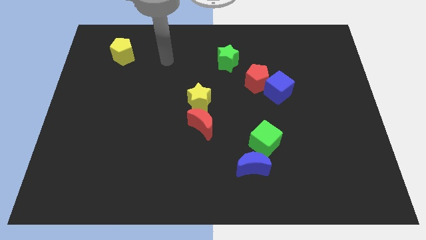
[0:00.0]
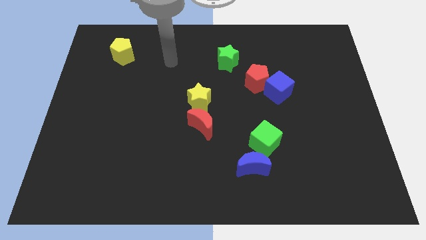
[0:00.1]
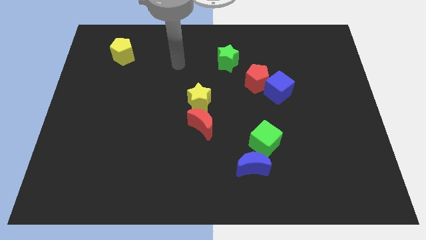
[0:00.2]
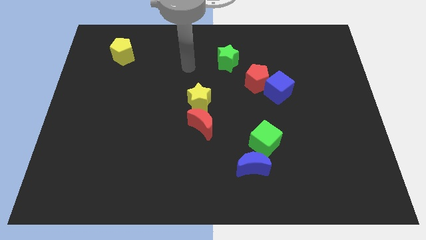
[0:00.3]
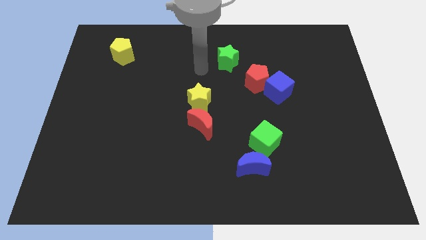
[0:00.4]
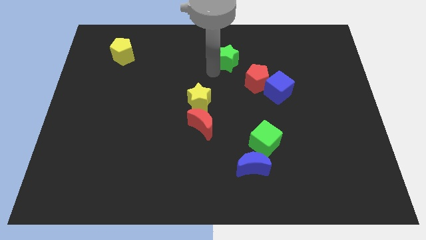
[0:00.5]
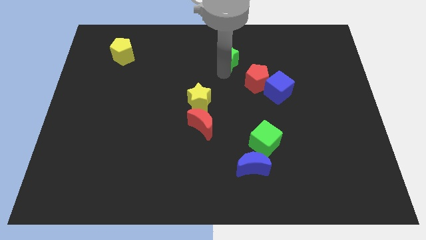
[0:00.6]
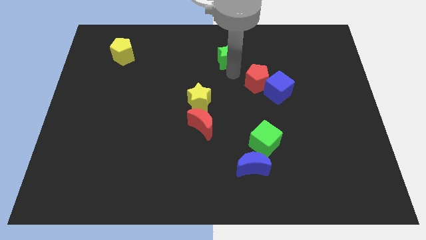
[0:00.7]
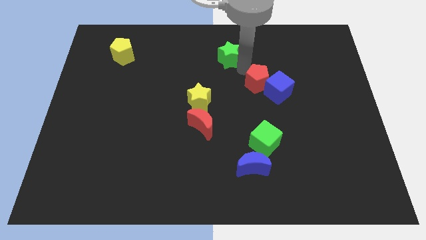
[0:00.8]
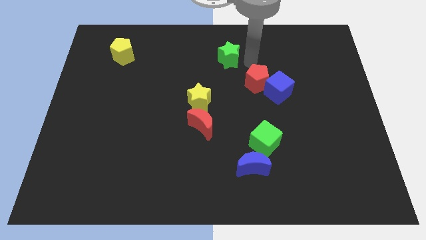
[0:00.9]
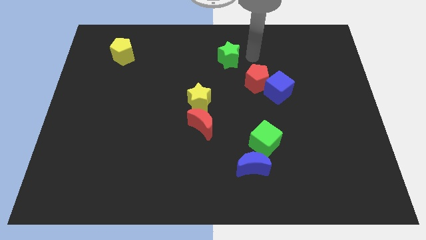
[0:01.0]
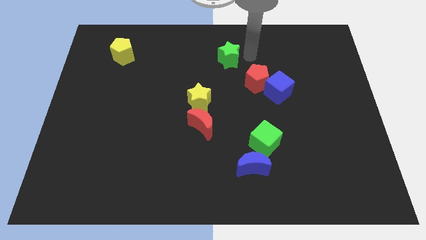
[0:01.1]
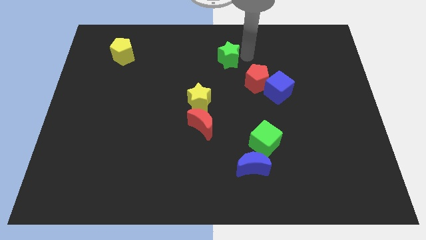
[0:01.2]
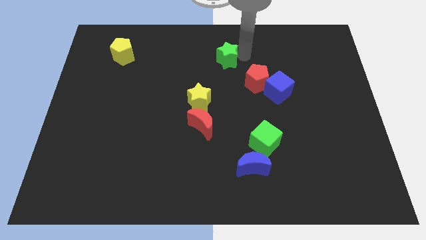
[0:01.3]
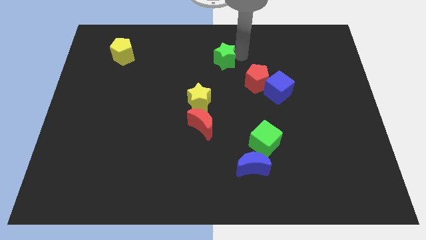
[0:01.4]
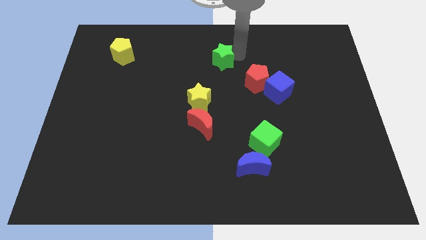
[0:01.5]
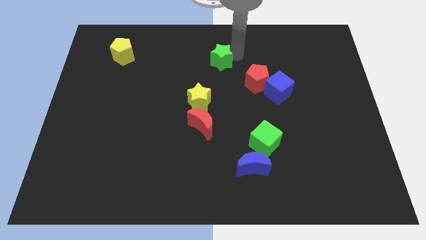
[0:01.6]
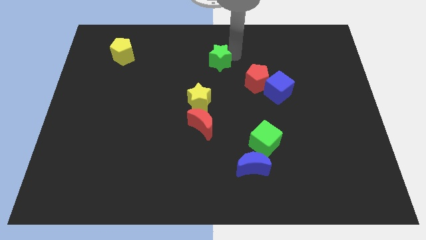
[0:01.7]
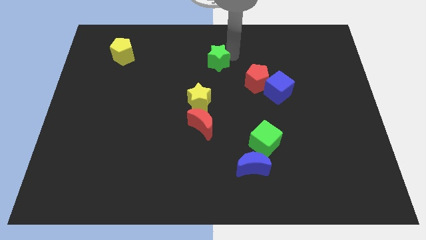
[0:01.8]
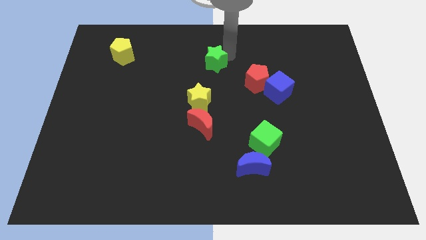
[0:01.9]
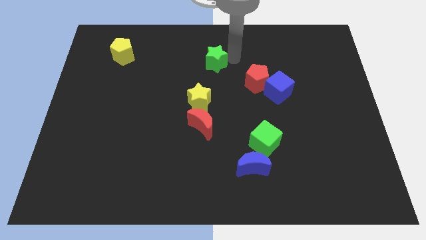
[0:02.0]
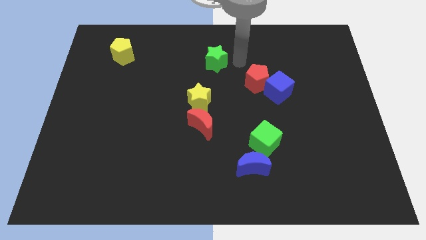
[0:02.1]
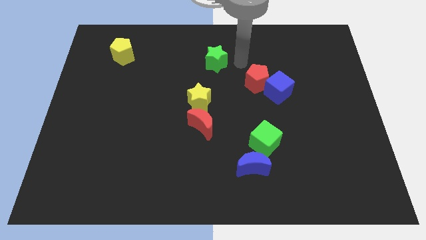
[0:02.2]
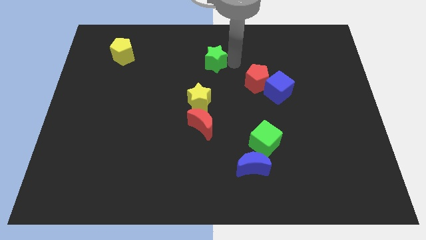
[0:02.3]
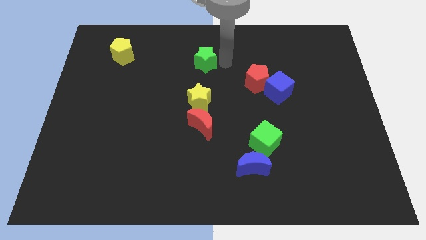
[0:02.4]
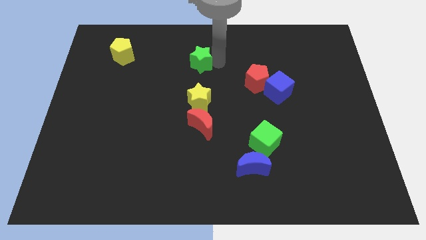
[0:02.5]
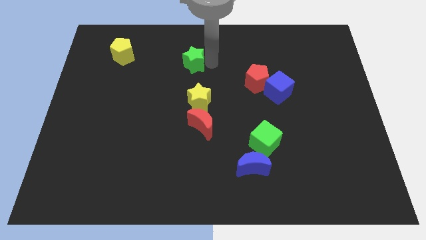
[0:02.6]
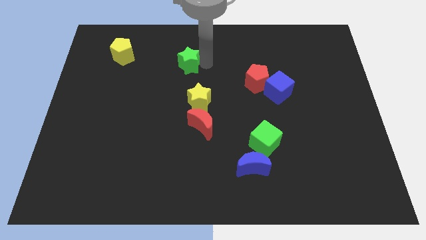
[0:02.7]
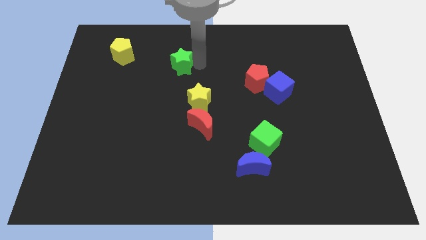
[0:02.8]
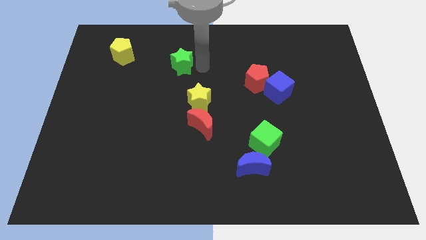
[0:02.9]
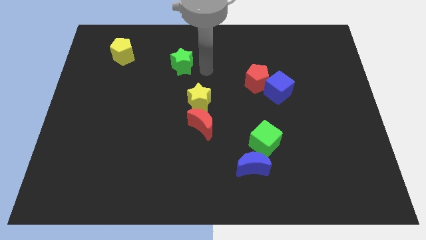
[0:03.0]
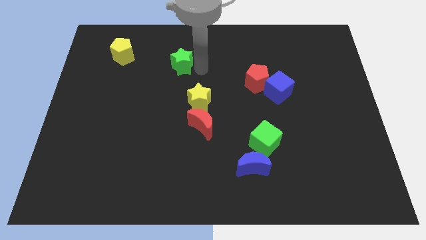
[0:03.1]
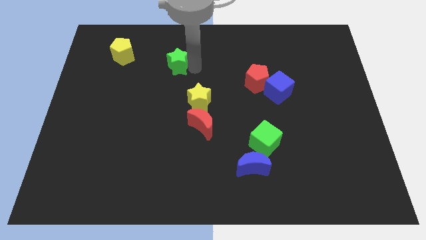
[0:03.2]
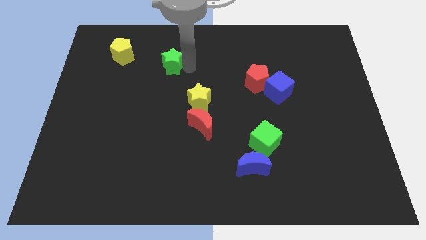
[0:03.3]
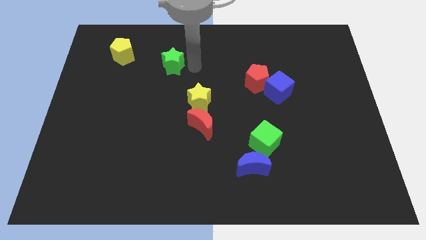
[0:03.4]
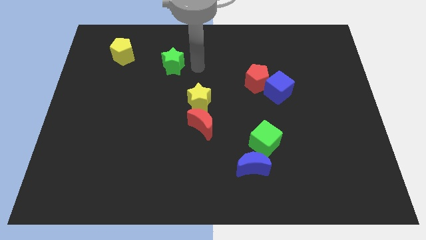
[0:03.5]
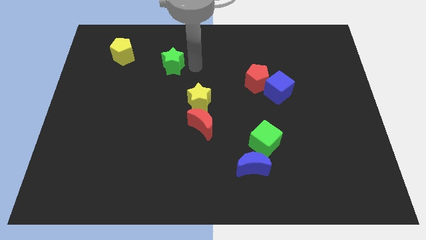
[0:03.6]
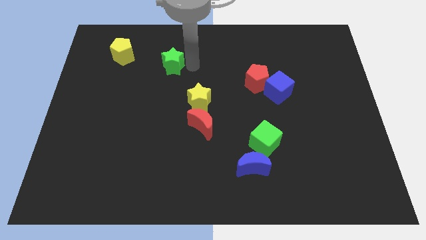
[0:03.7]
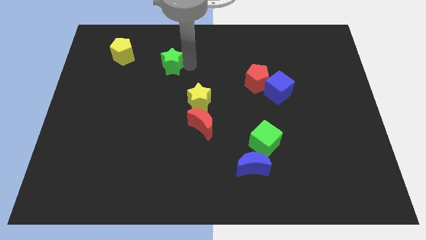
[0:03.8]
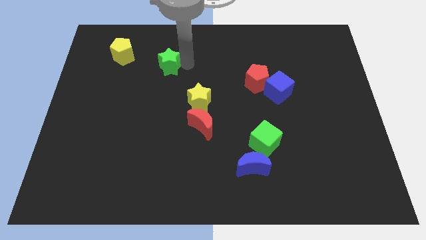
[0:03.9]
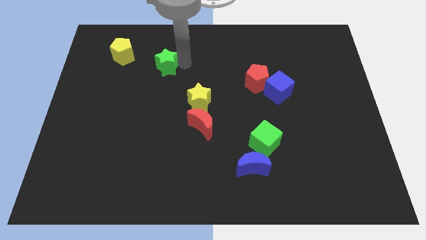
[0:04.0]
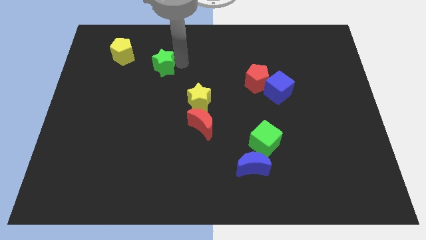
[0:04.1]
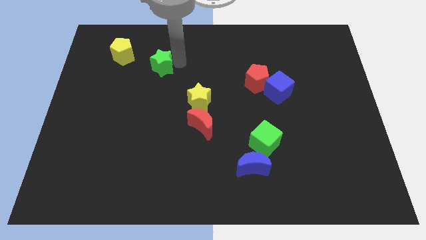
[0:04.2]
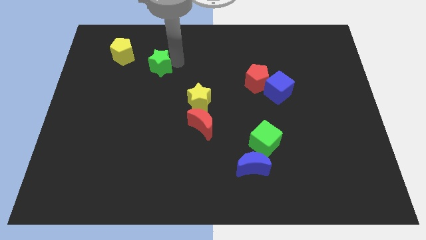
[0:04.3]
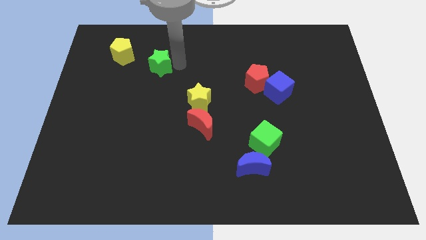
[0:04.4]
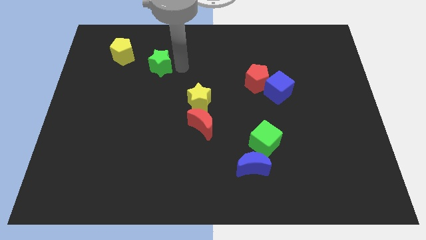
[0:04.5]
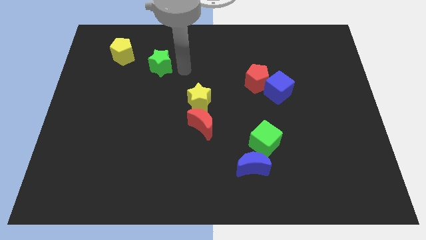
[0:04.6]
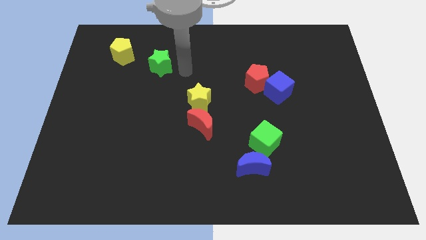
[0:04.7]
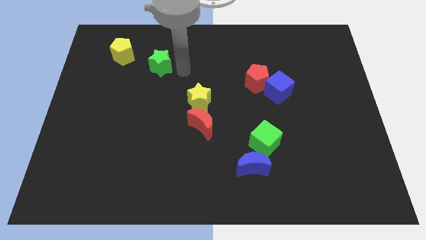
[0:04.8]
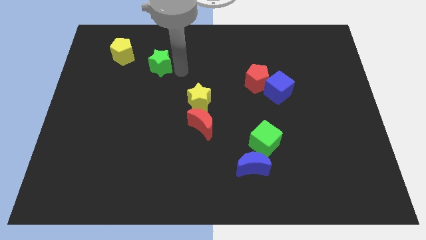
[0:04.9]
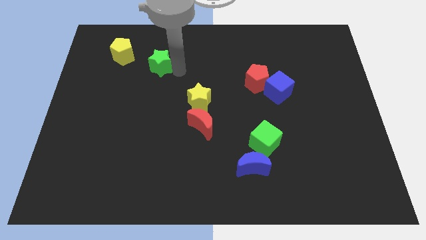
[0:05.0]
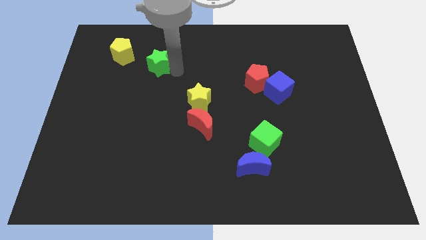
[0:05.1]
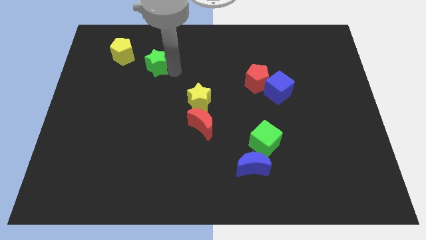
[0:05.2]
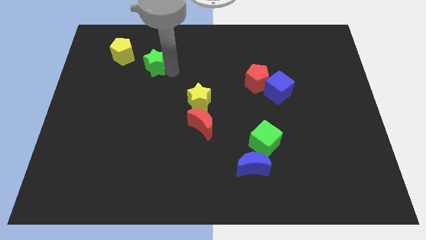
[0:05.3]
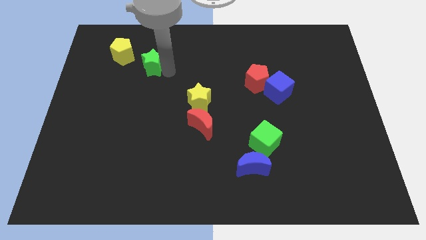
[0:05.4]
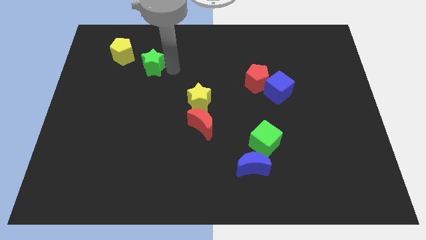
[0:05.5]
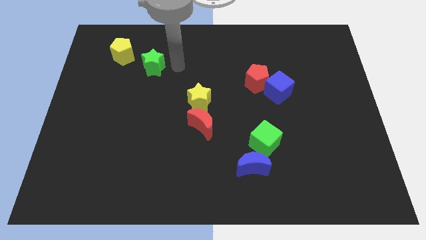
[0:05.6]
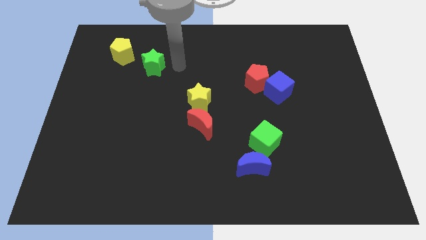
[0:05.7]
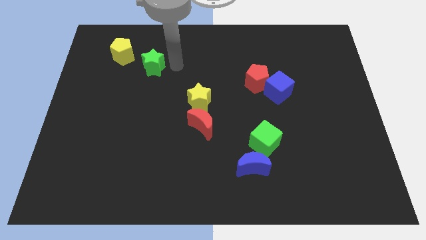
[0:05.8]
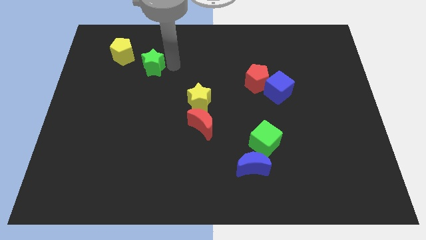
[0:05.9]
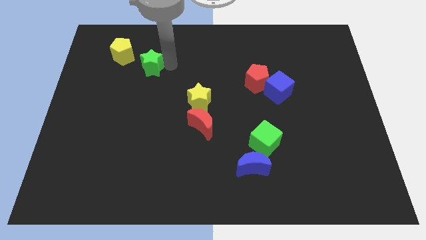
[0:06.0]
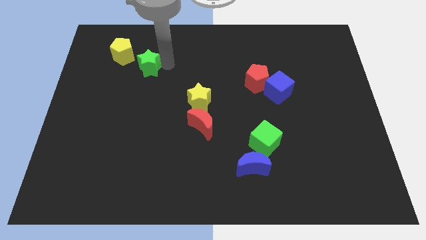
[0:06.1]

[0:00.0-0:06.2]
slide the green star to the left

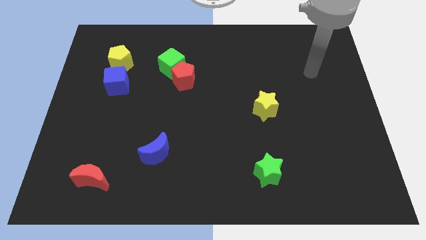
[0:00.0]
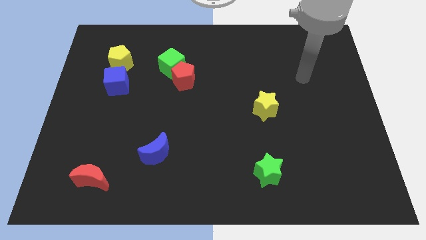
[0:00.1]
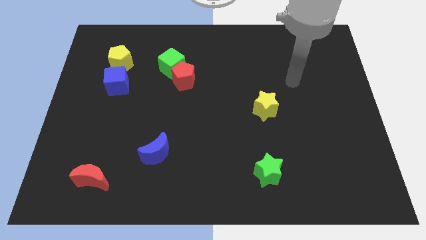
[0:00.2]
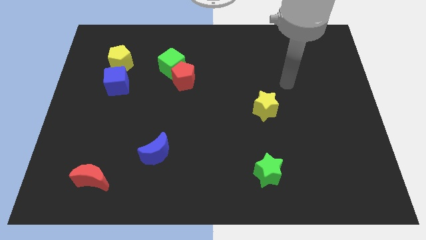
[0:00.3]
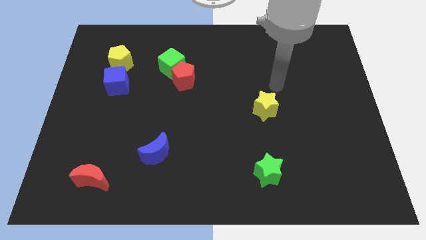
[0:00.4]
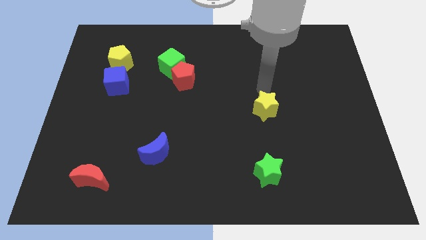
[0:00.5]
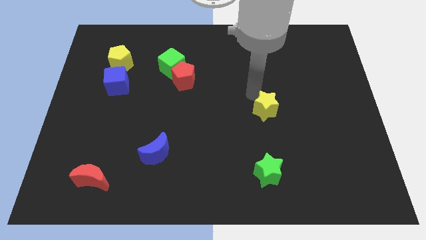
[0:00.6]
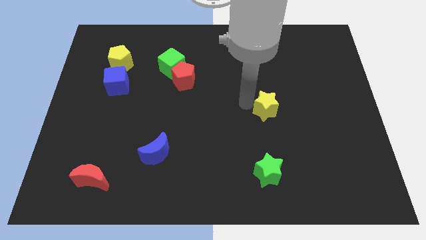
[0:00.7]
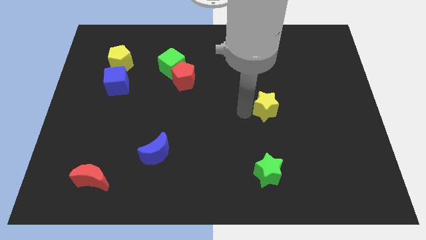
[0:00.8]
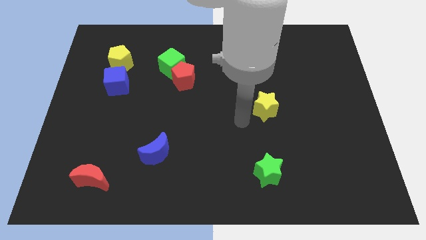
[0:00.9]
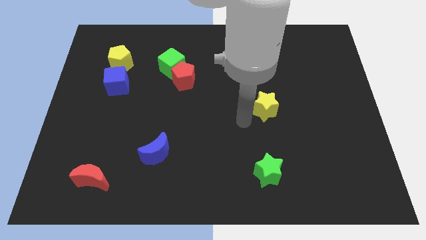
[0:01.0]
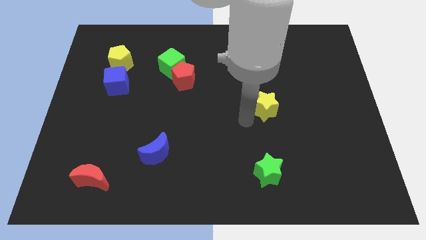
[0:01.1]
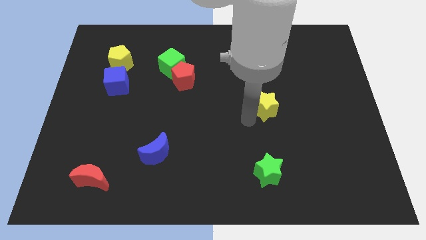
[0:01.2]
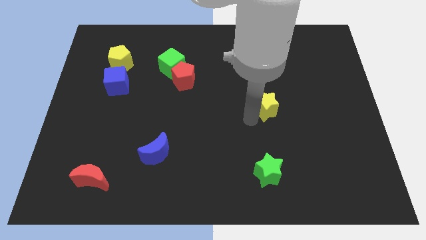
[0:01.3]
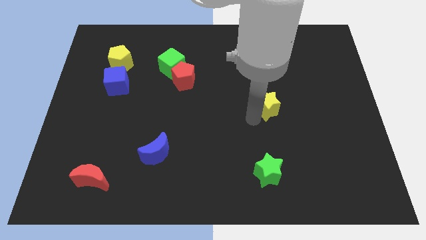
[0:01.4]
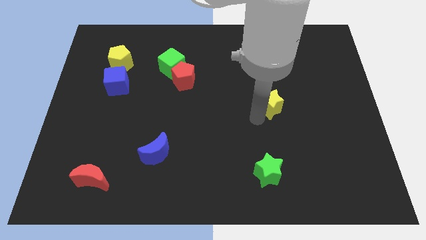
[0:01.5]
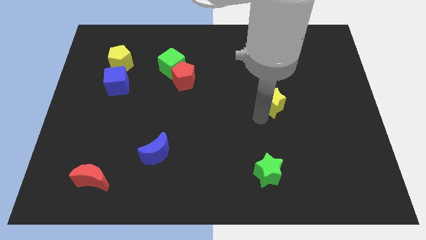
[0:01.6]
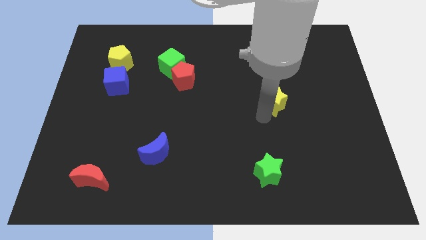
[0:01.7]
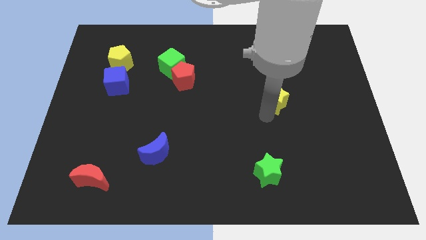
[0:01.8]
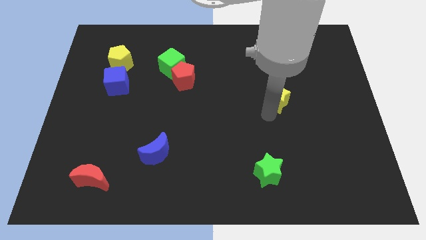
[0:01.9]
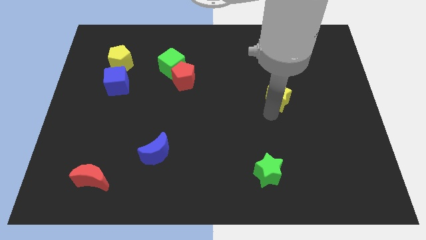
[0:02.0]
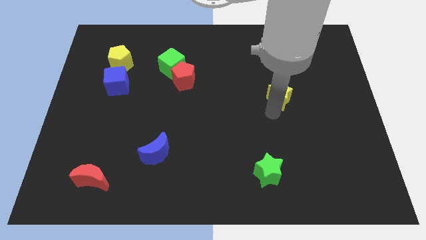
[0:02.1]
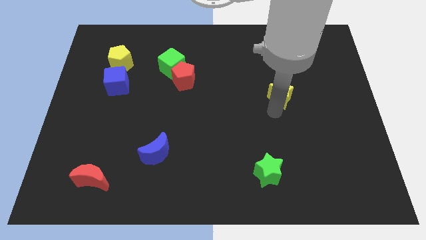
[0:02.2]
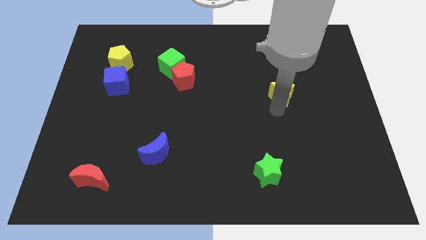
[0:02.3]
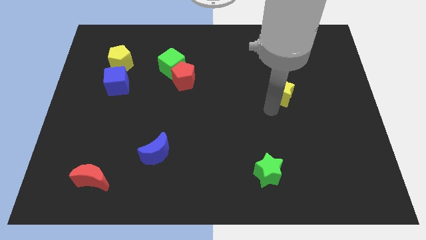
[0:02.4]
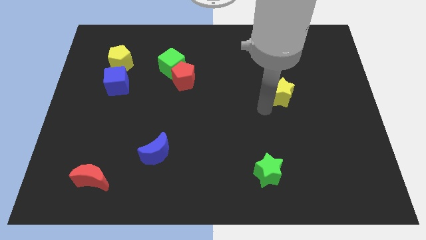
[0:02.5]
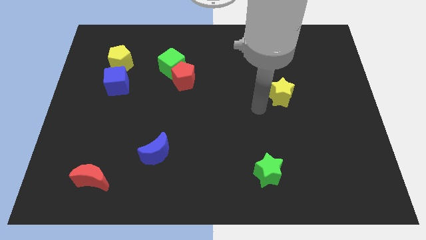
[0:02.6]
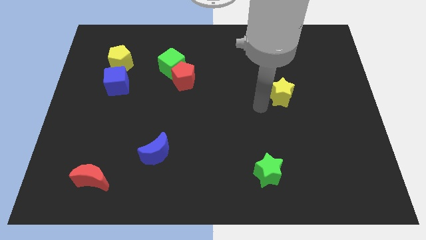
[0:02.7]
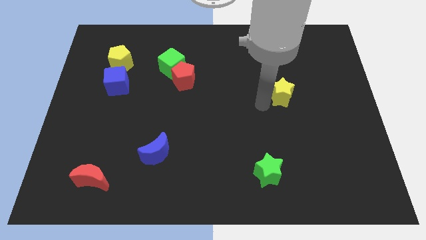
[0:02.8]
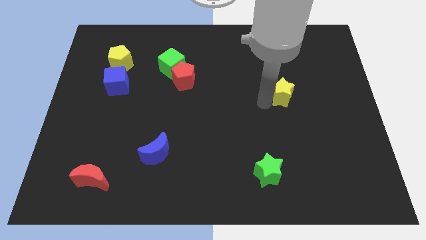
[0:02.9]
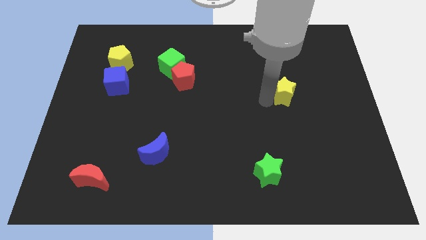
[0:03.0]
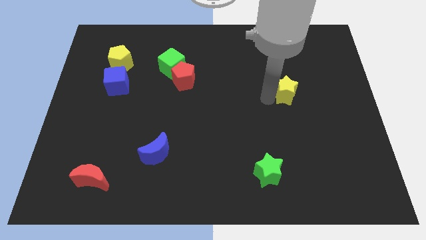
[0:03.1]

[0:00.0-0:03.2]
move the yellow star somewhat diagonally upwards and to the right
